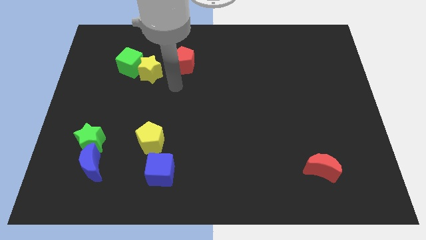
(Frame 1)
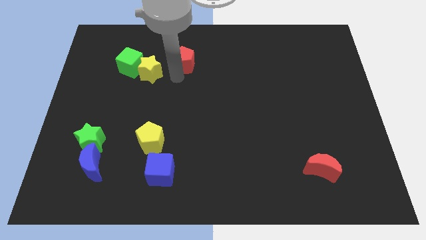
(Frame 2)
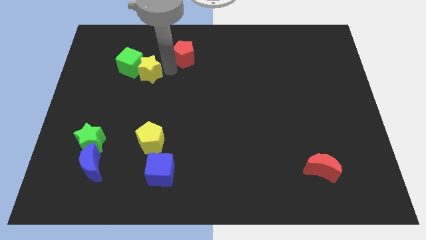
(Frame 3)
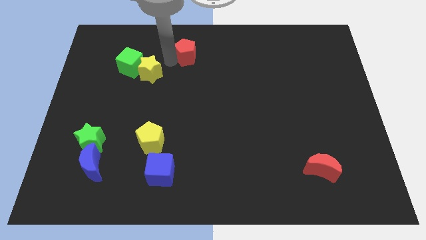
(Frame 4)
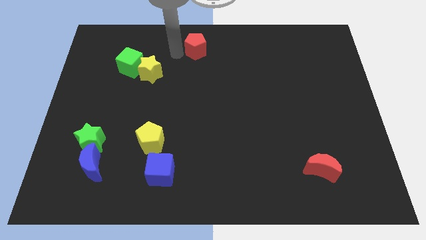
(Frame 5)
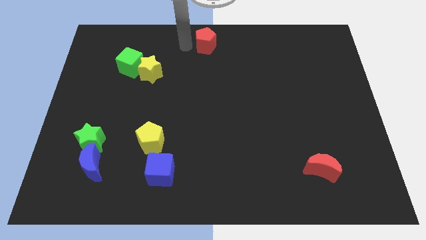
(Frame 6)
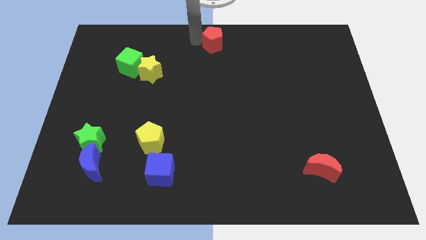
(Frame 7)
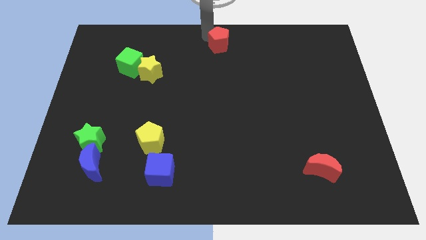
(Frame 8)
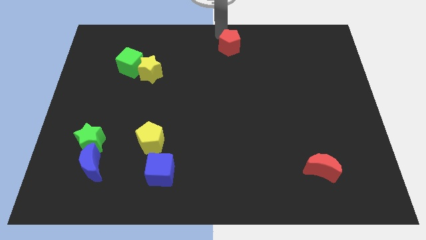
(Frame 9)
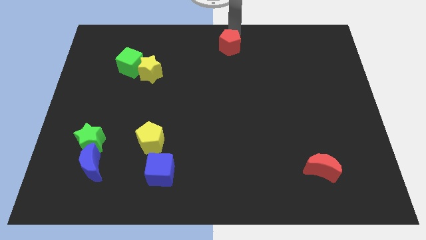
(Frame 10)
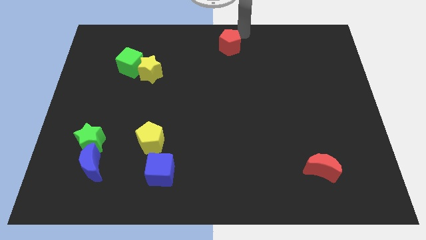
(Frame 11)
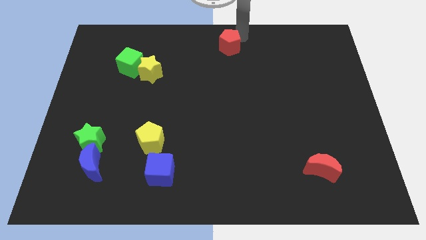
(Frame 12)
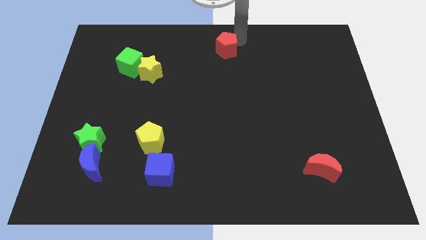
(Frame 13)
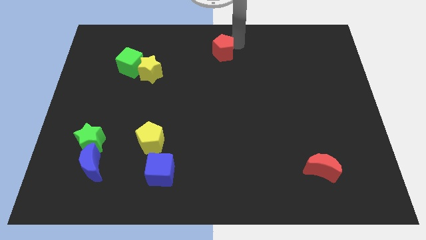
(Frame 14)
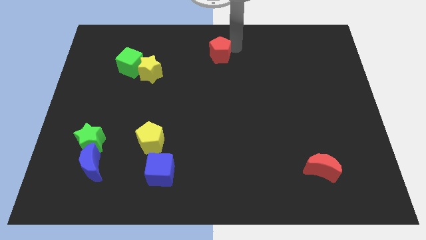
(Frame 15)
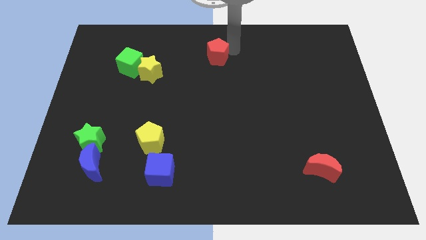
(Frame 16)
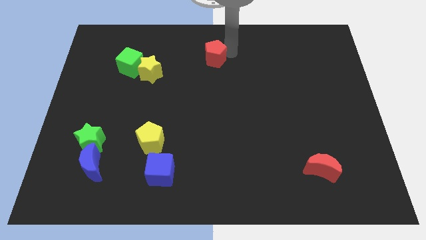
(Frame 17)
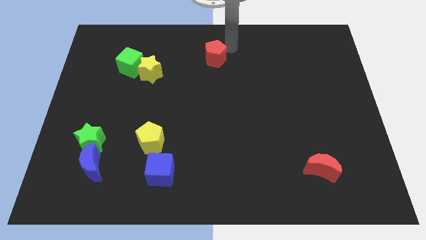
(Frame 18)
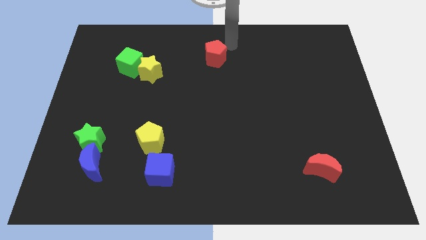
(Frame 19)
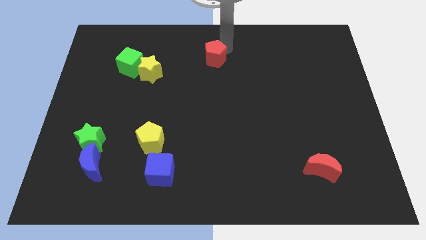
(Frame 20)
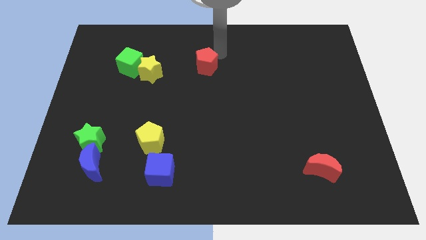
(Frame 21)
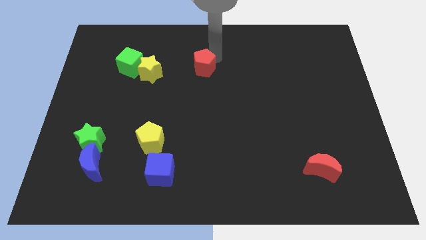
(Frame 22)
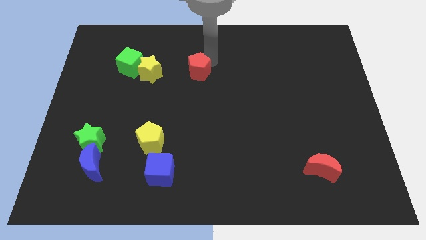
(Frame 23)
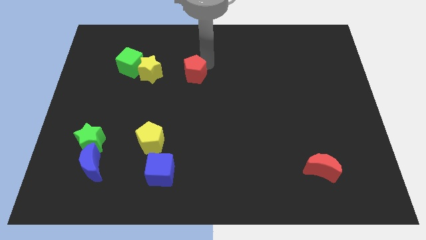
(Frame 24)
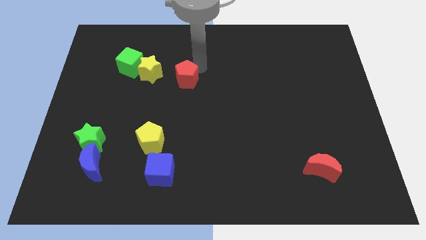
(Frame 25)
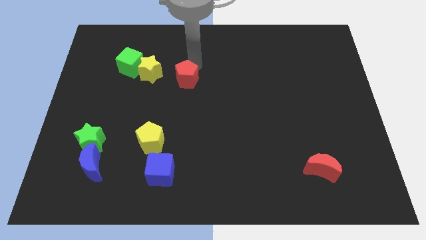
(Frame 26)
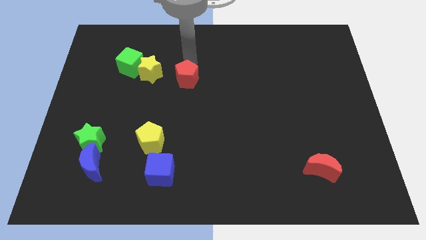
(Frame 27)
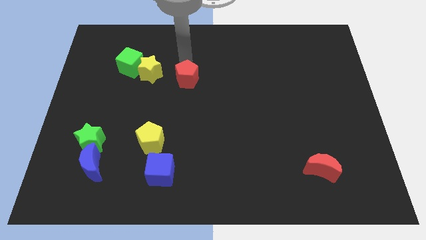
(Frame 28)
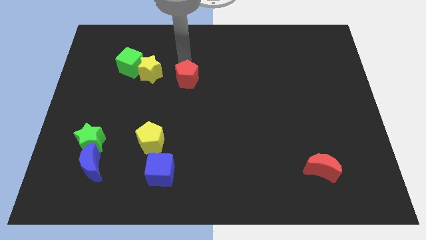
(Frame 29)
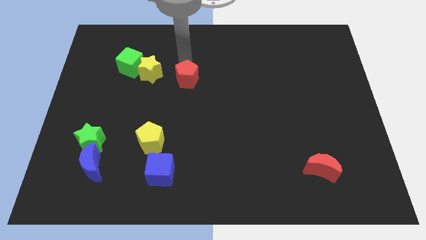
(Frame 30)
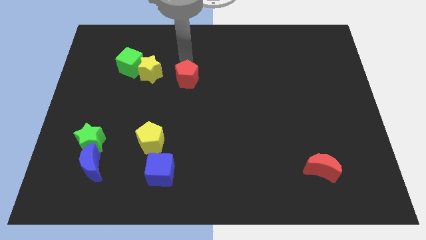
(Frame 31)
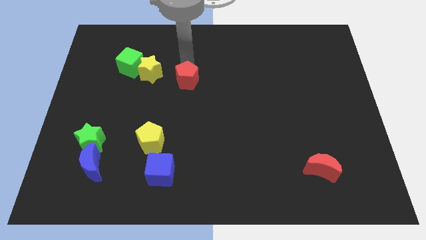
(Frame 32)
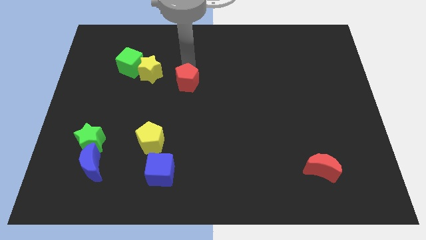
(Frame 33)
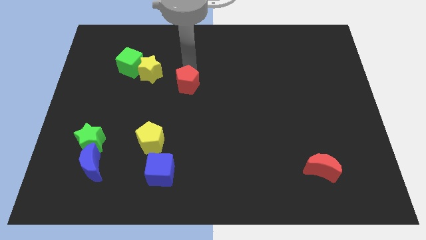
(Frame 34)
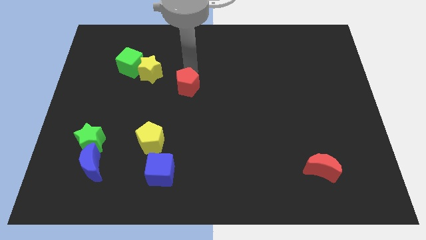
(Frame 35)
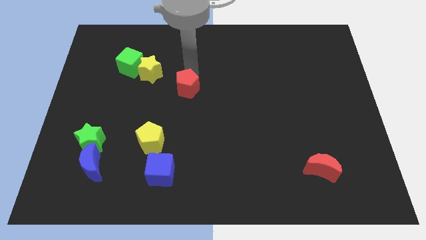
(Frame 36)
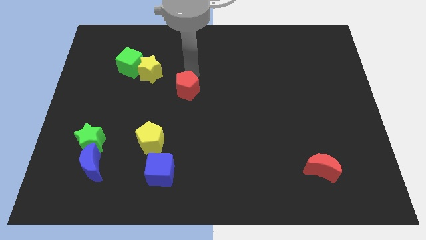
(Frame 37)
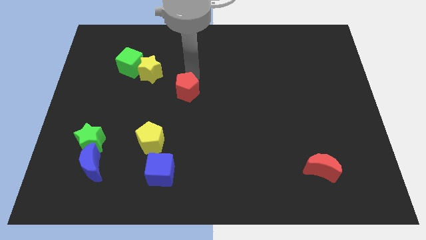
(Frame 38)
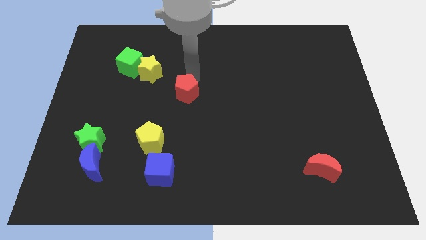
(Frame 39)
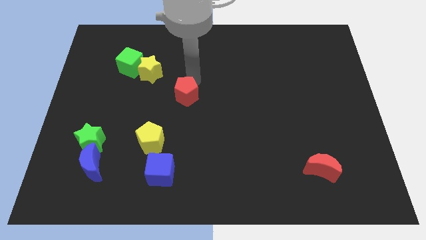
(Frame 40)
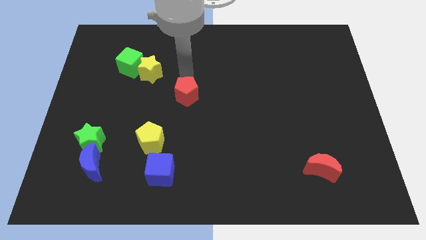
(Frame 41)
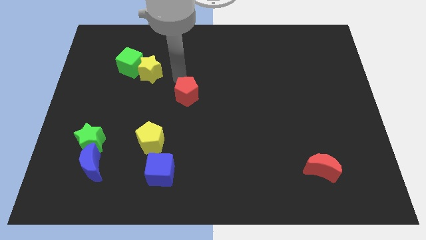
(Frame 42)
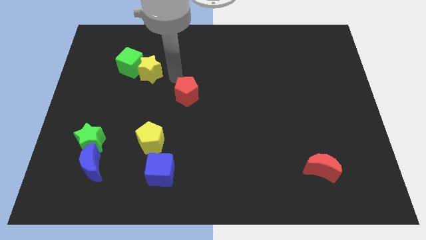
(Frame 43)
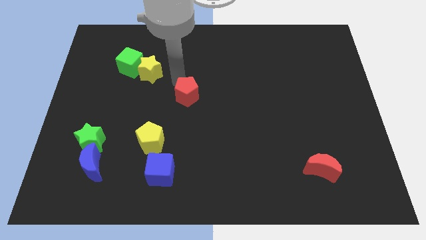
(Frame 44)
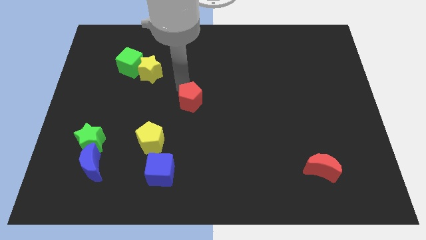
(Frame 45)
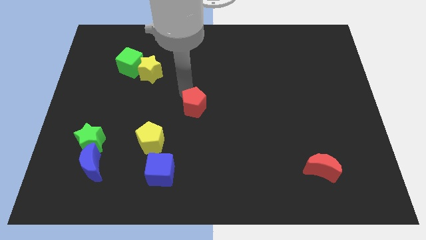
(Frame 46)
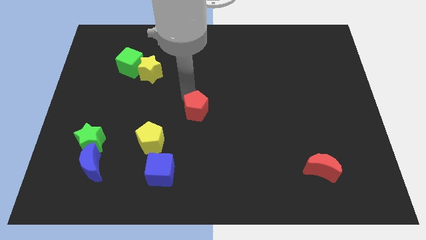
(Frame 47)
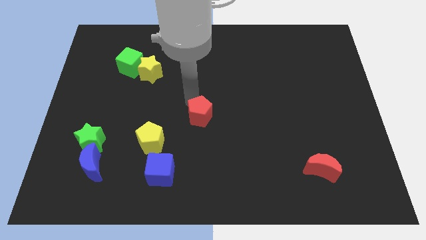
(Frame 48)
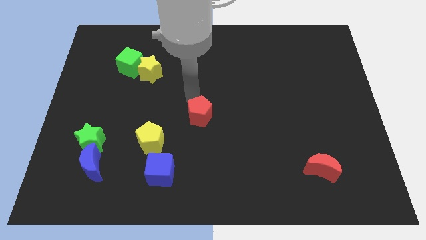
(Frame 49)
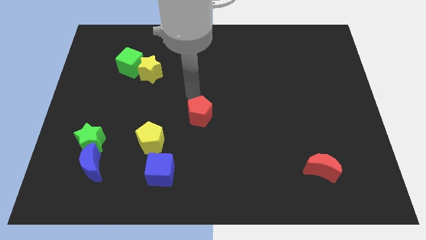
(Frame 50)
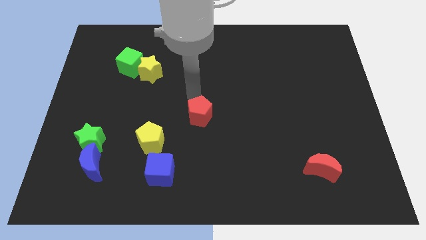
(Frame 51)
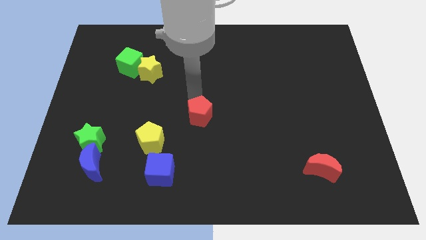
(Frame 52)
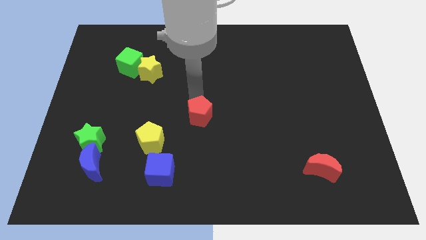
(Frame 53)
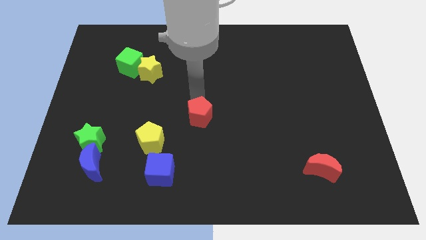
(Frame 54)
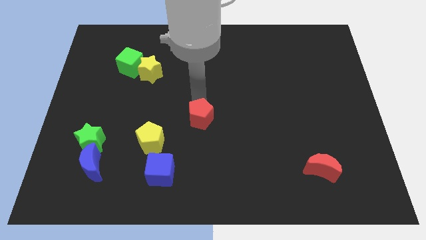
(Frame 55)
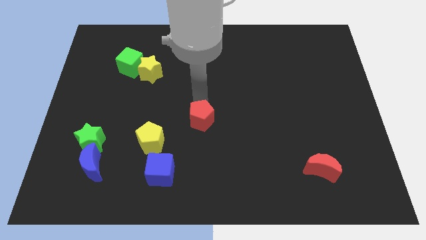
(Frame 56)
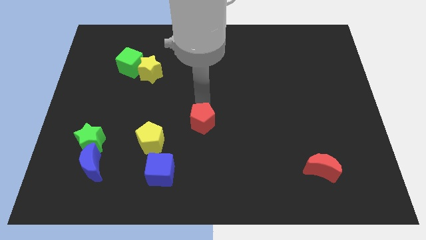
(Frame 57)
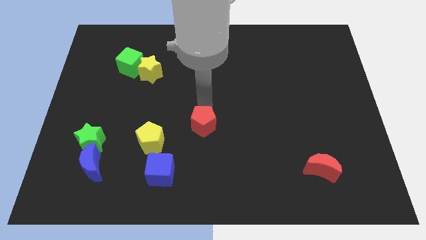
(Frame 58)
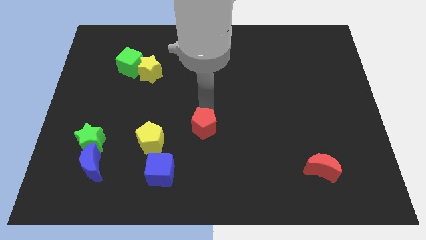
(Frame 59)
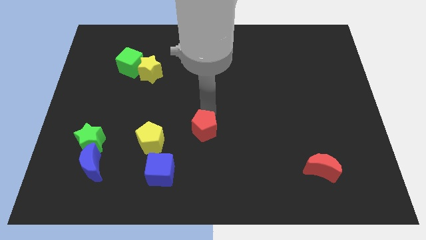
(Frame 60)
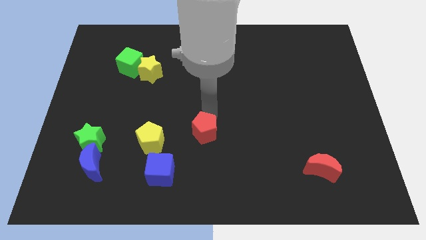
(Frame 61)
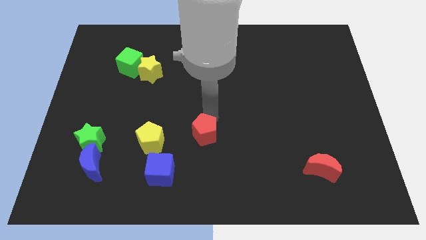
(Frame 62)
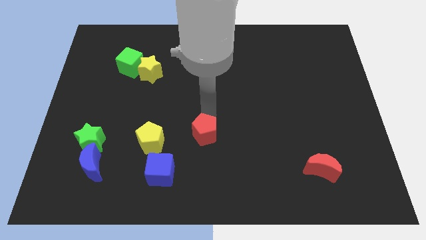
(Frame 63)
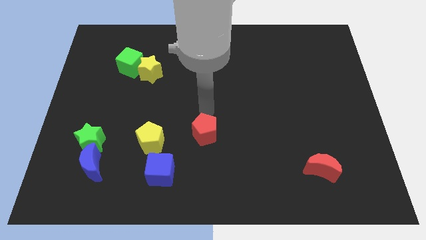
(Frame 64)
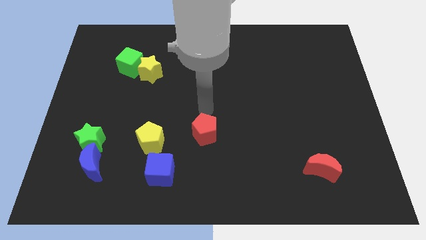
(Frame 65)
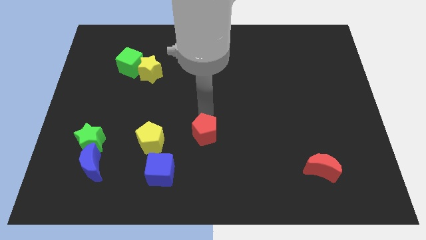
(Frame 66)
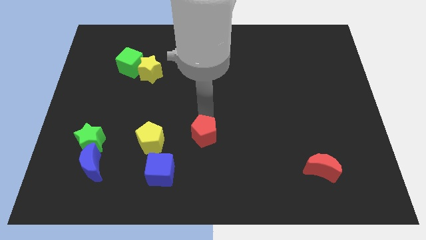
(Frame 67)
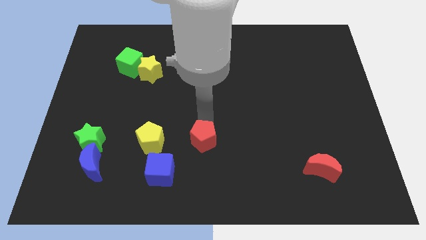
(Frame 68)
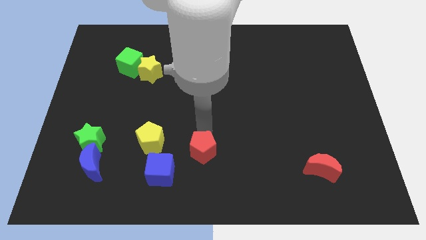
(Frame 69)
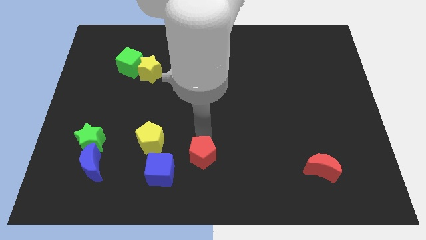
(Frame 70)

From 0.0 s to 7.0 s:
move the red pentagon right of the blue cube

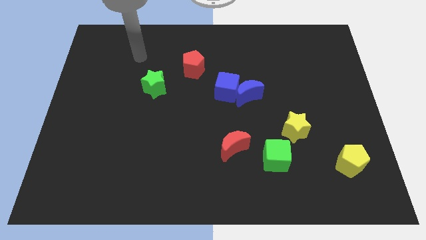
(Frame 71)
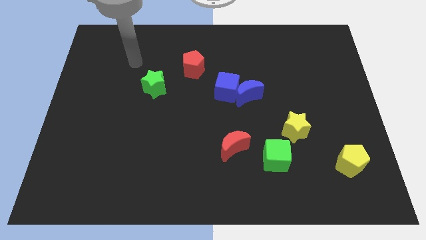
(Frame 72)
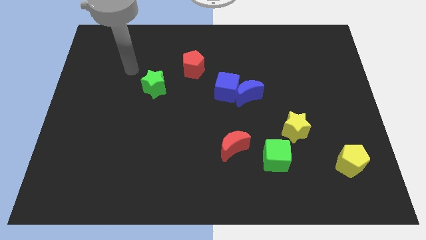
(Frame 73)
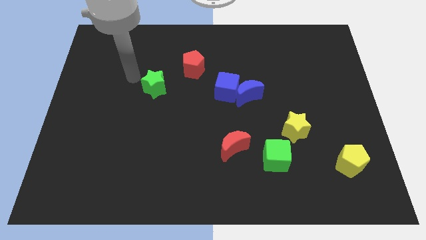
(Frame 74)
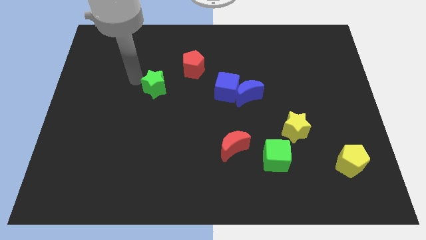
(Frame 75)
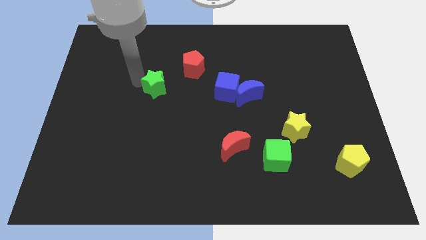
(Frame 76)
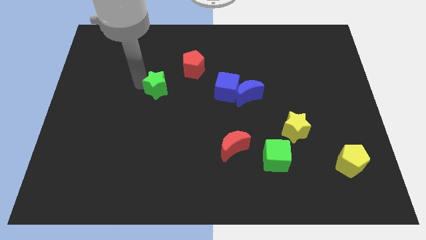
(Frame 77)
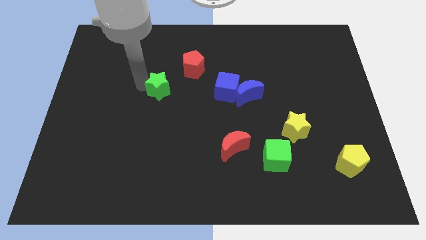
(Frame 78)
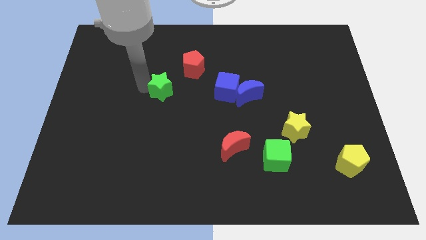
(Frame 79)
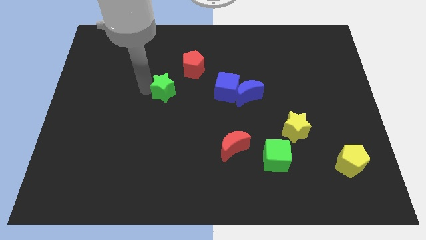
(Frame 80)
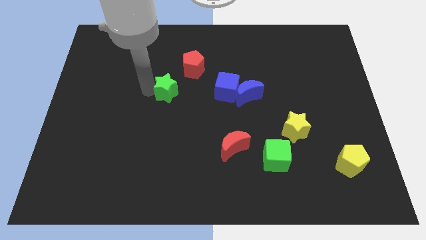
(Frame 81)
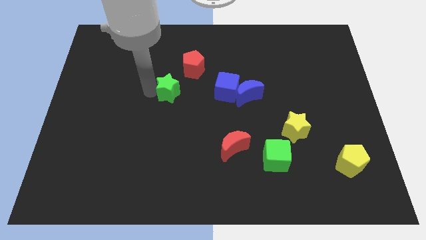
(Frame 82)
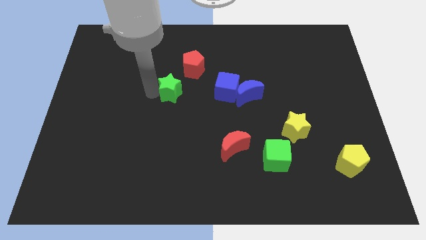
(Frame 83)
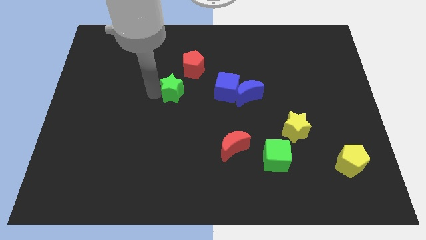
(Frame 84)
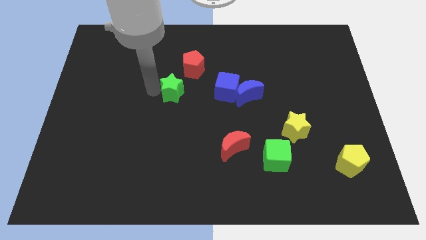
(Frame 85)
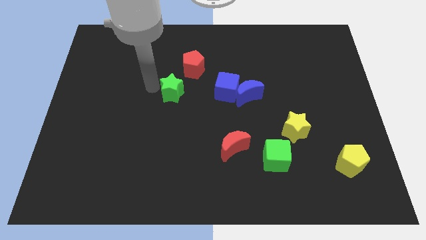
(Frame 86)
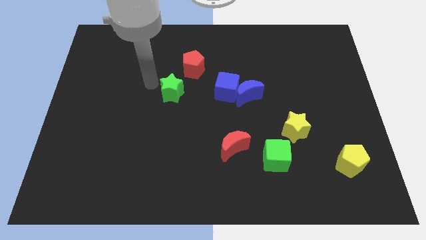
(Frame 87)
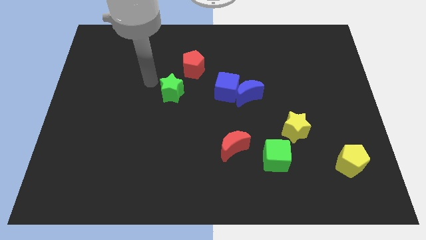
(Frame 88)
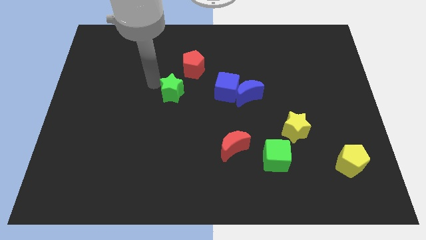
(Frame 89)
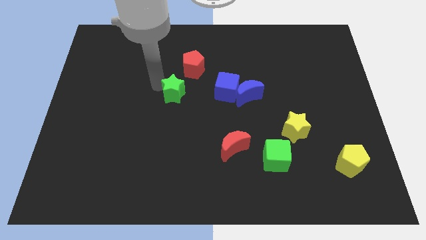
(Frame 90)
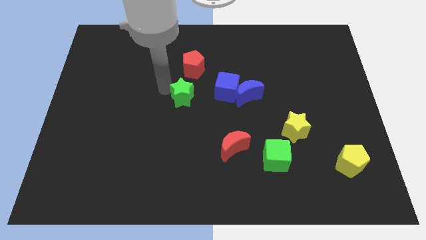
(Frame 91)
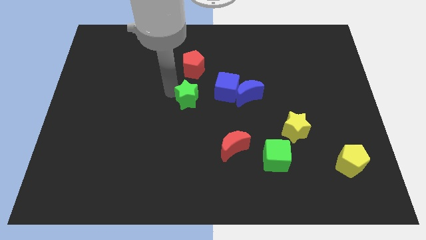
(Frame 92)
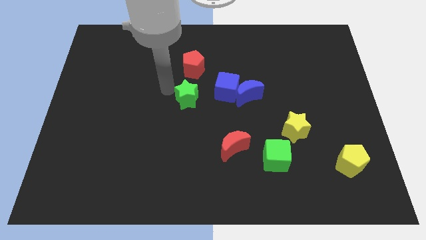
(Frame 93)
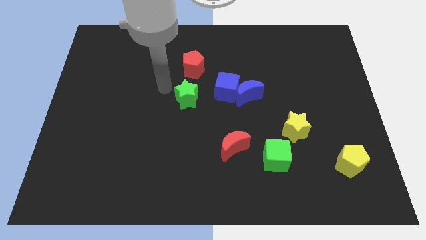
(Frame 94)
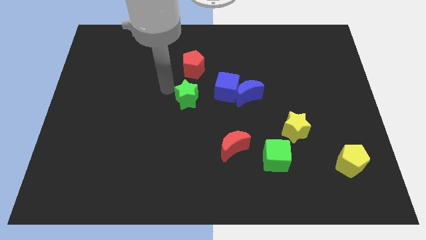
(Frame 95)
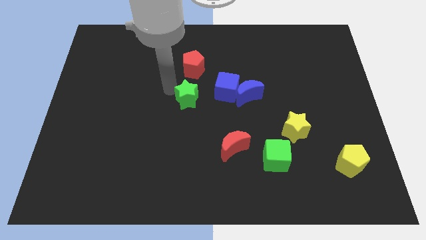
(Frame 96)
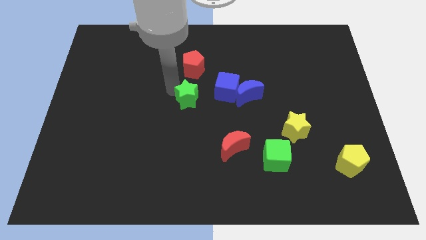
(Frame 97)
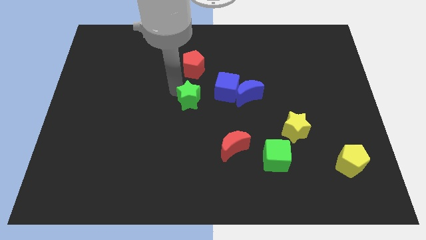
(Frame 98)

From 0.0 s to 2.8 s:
move the green star to the bottom left side of the blue cube
